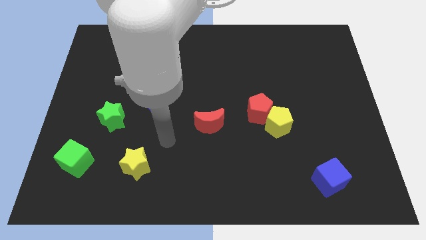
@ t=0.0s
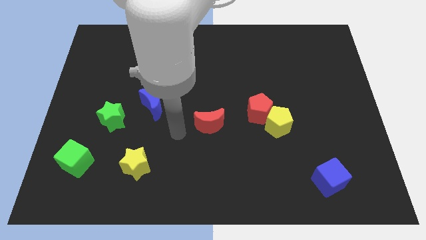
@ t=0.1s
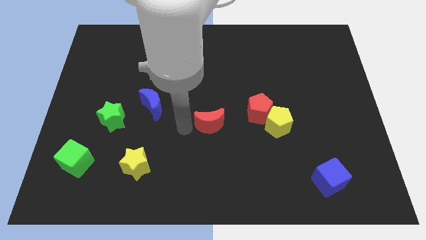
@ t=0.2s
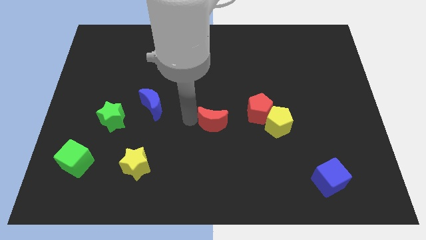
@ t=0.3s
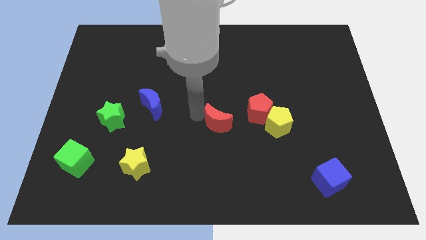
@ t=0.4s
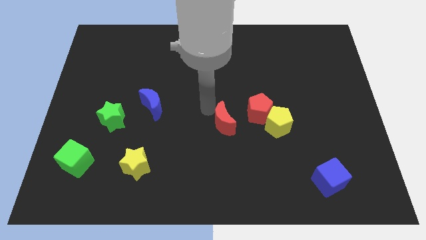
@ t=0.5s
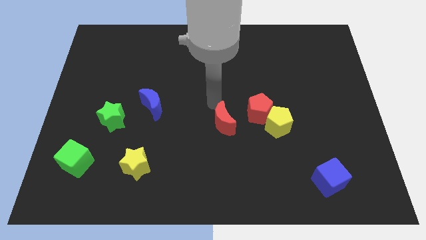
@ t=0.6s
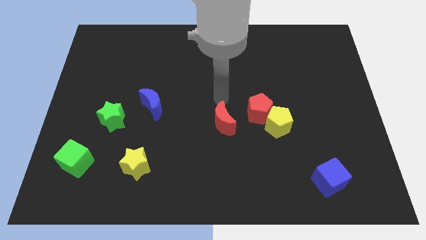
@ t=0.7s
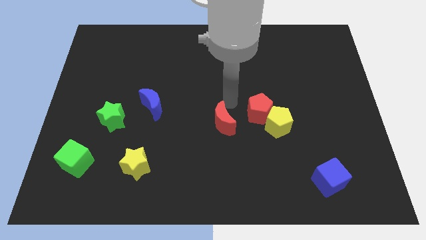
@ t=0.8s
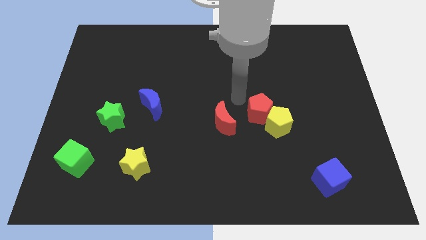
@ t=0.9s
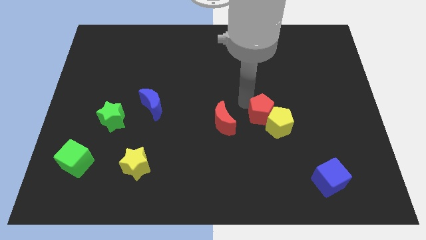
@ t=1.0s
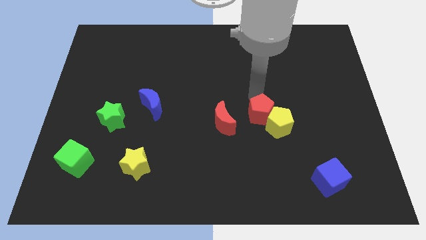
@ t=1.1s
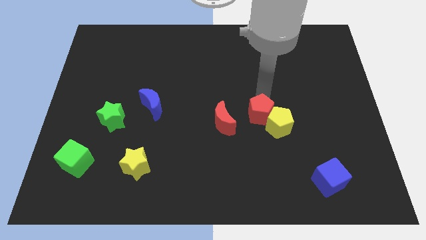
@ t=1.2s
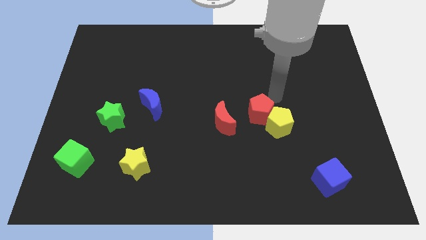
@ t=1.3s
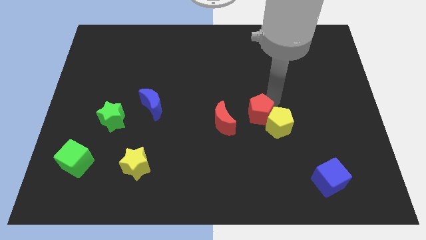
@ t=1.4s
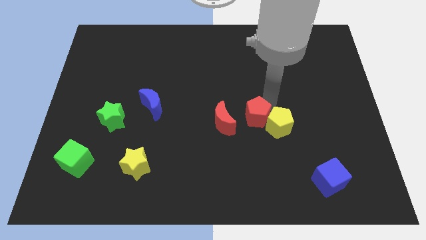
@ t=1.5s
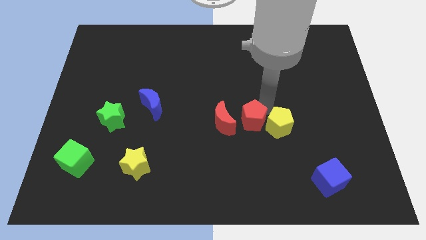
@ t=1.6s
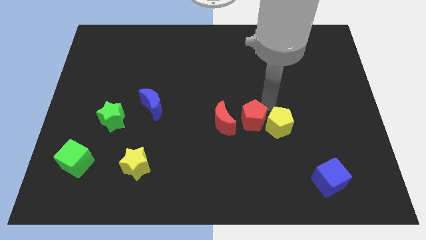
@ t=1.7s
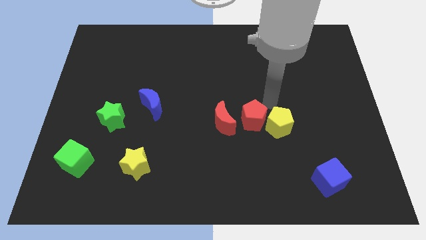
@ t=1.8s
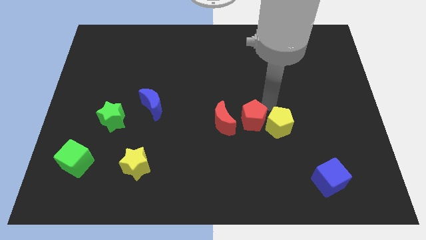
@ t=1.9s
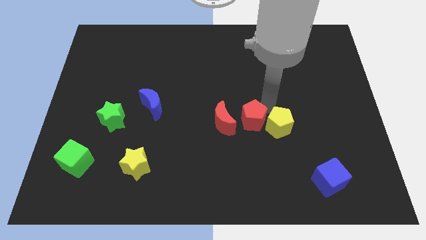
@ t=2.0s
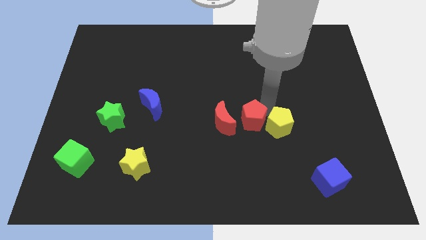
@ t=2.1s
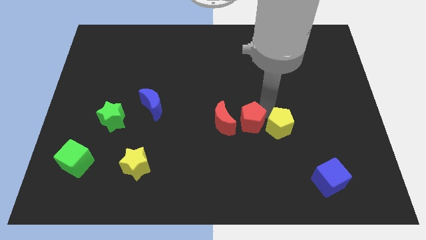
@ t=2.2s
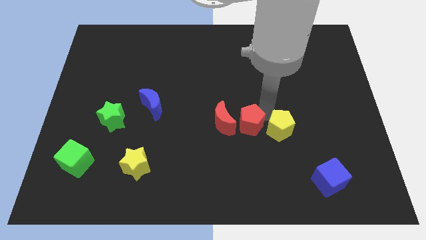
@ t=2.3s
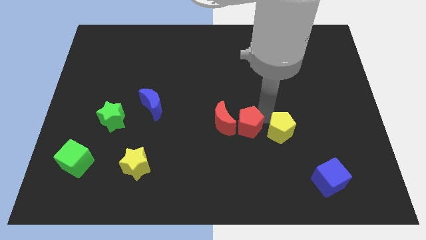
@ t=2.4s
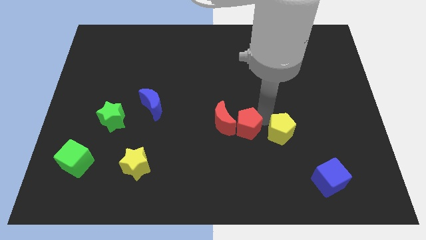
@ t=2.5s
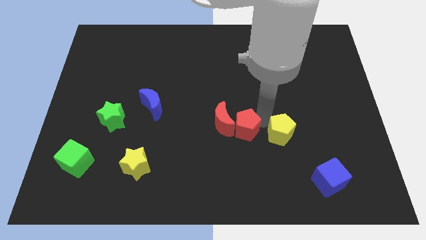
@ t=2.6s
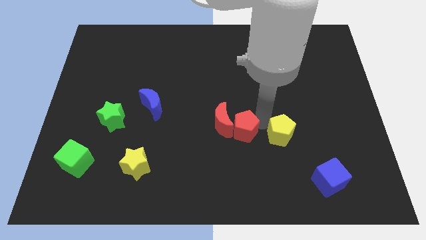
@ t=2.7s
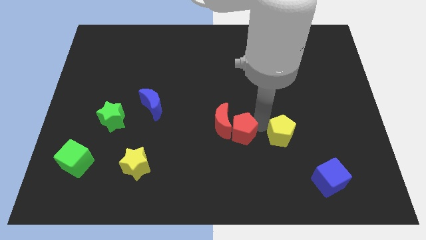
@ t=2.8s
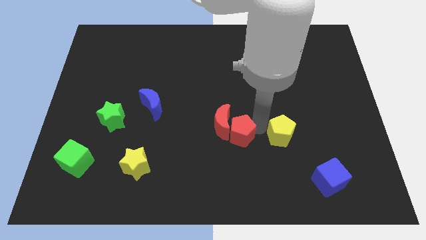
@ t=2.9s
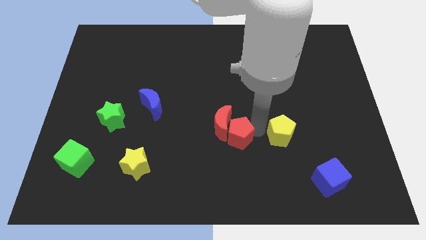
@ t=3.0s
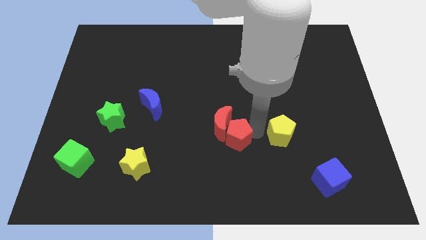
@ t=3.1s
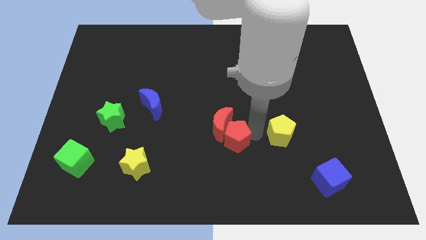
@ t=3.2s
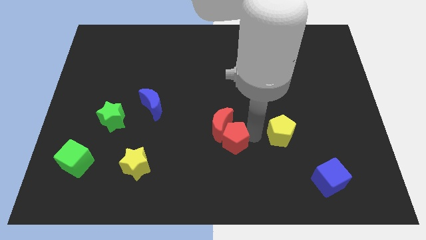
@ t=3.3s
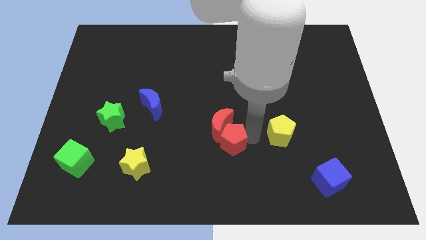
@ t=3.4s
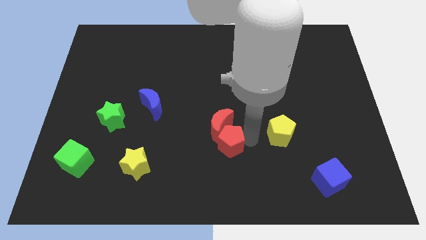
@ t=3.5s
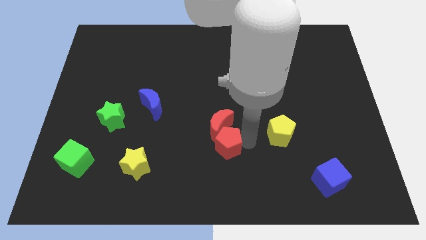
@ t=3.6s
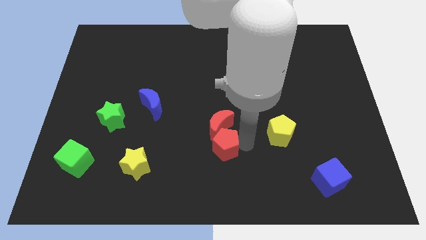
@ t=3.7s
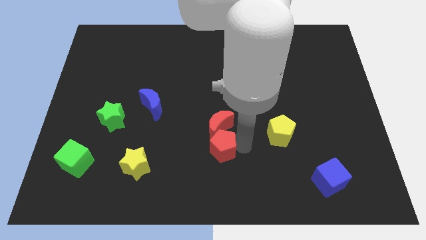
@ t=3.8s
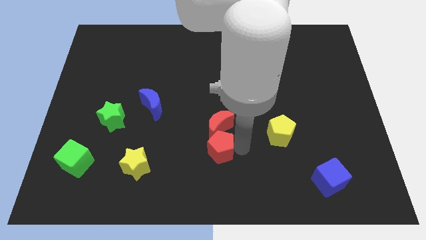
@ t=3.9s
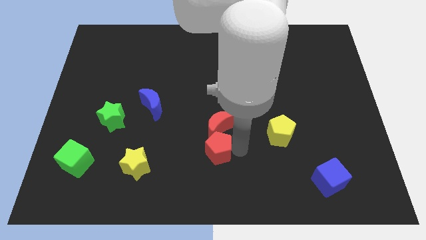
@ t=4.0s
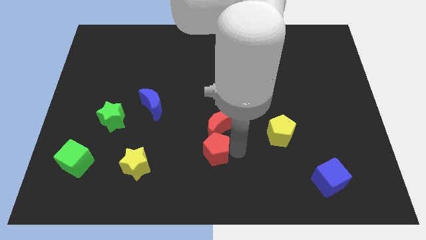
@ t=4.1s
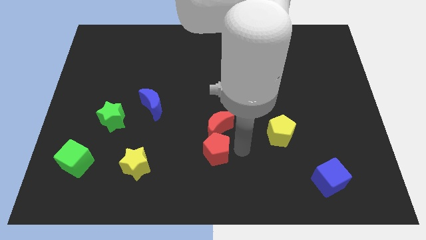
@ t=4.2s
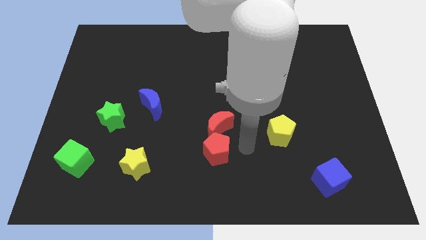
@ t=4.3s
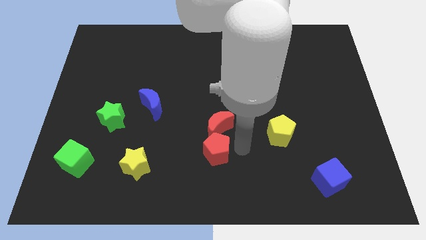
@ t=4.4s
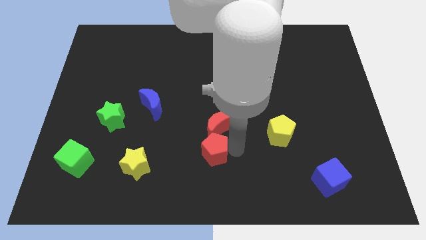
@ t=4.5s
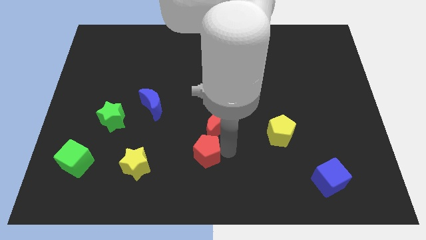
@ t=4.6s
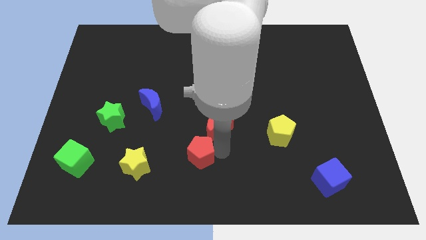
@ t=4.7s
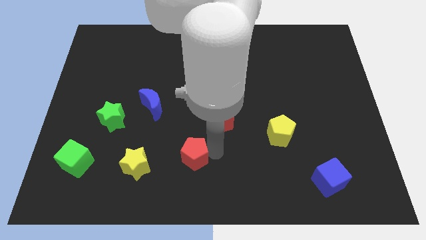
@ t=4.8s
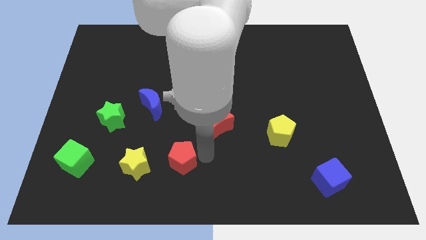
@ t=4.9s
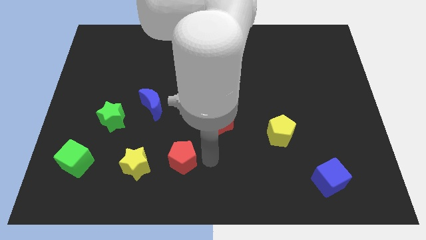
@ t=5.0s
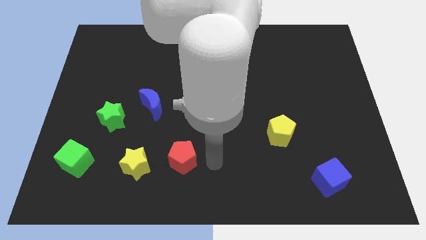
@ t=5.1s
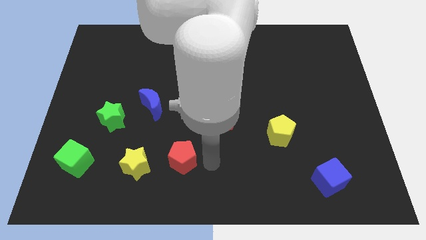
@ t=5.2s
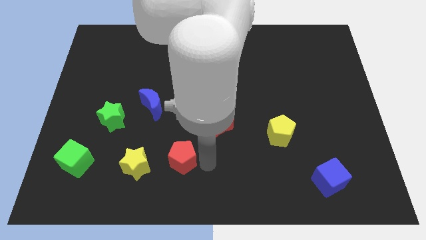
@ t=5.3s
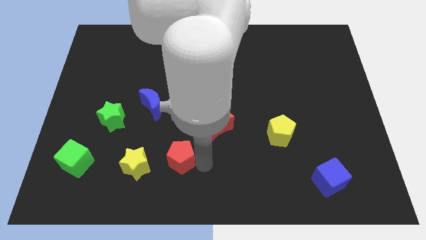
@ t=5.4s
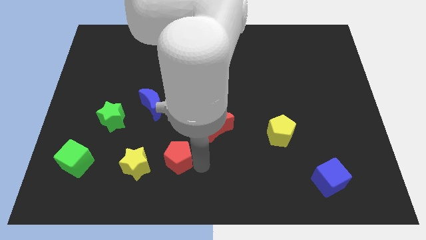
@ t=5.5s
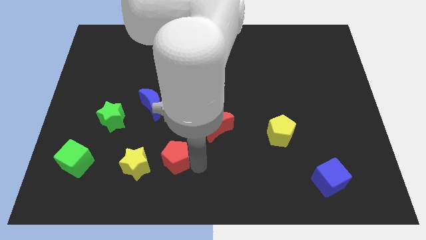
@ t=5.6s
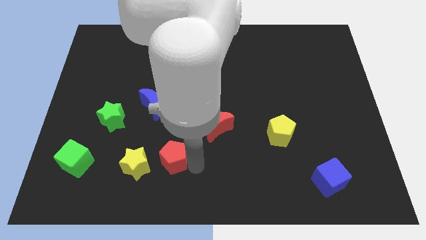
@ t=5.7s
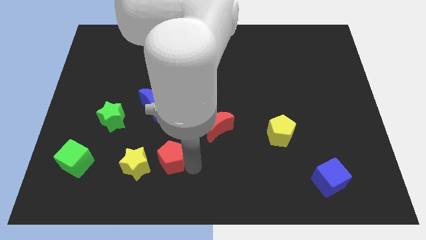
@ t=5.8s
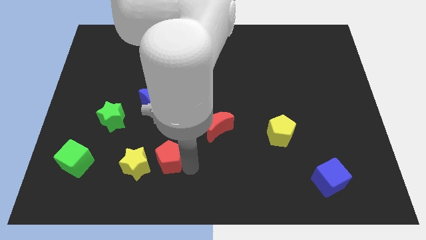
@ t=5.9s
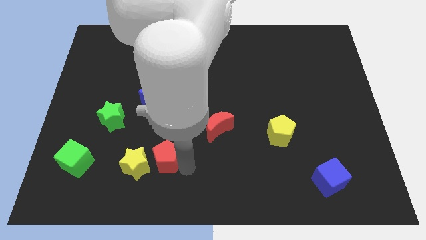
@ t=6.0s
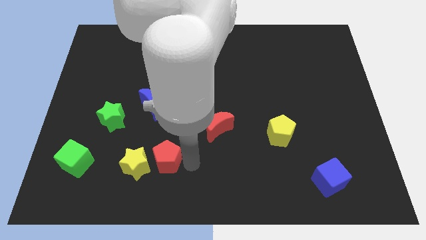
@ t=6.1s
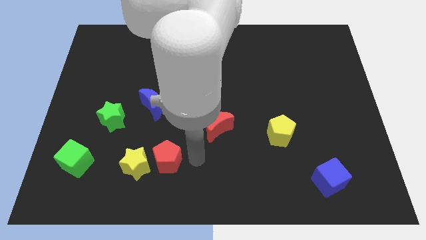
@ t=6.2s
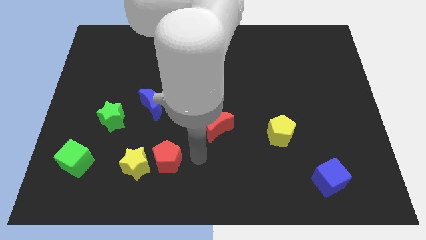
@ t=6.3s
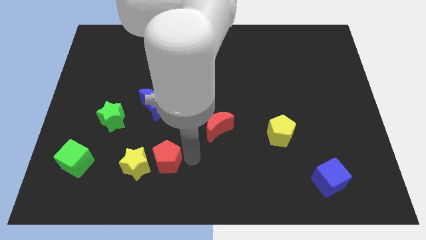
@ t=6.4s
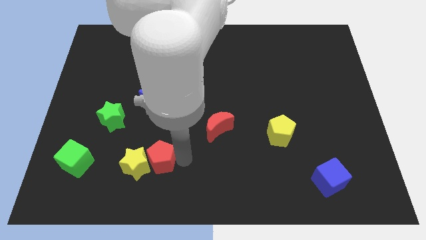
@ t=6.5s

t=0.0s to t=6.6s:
put the red pentagon close to the yellow star

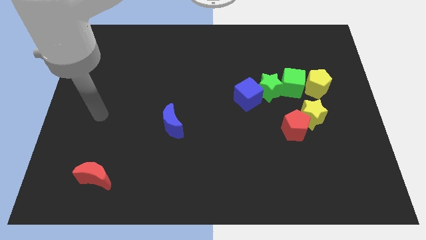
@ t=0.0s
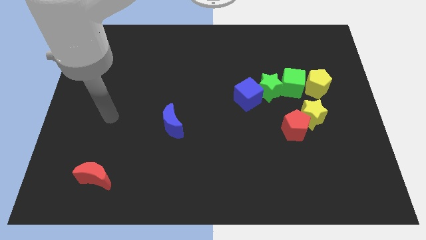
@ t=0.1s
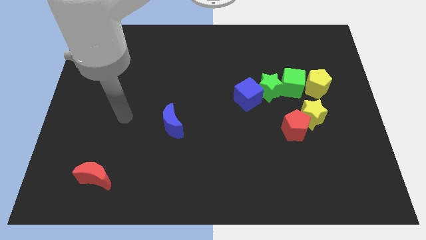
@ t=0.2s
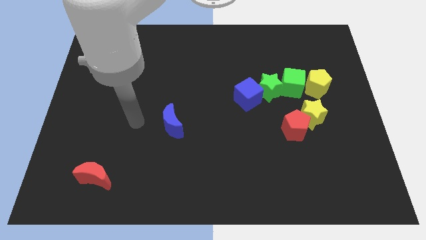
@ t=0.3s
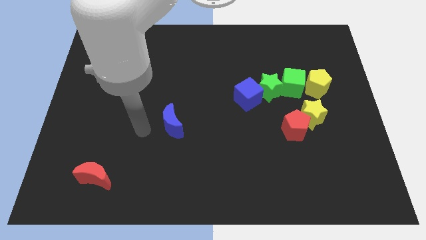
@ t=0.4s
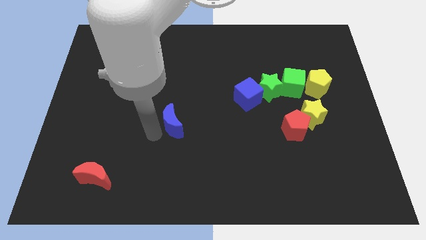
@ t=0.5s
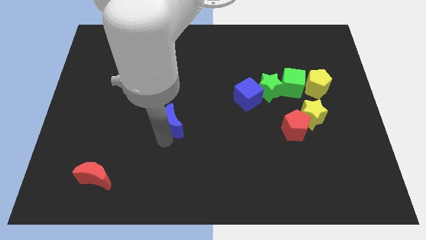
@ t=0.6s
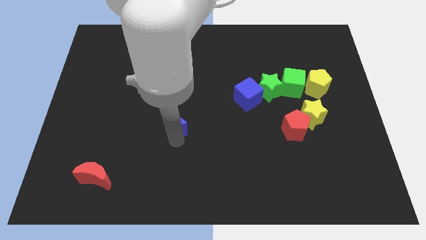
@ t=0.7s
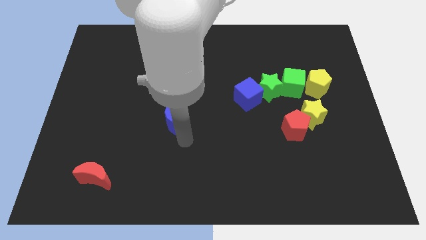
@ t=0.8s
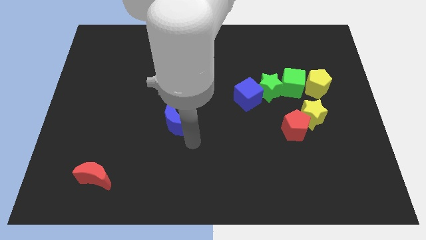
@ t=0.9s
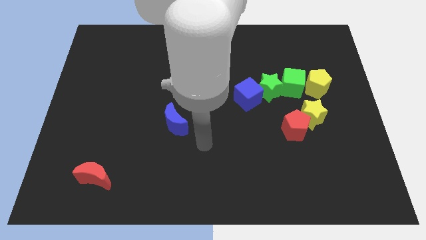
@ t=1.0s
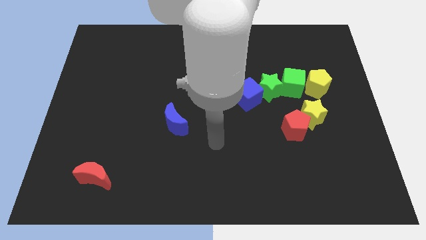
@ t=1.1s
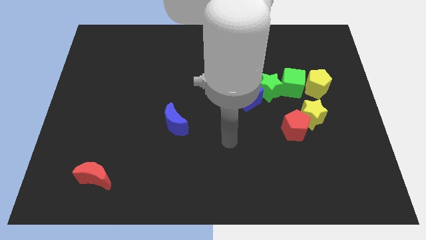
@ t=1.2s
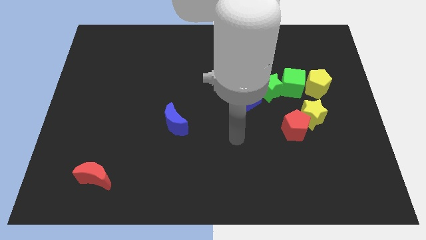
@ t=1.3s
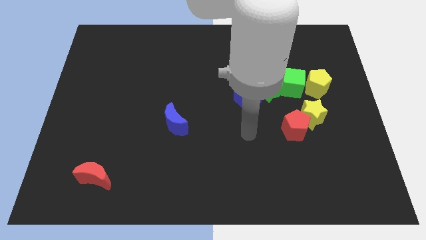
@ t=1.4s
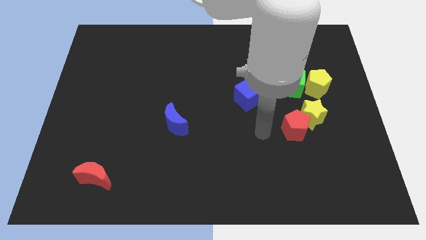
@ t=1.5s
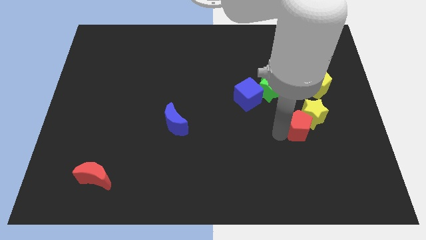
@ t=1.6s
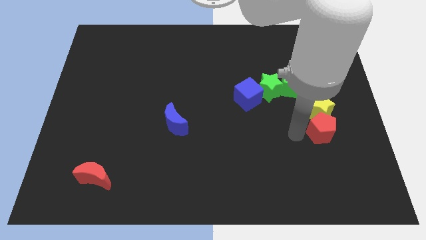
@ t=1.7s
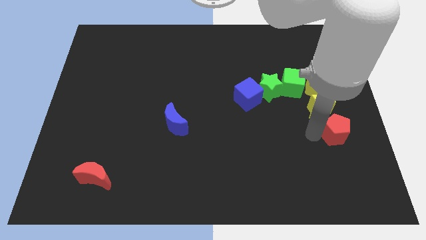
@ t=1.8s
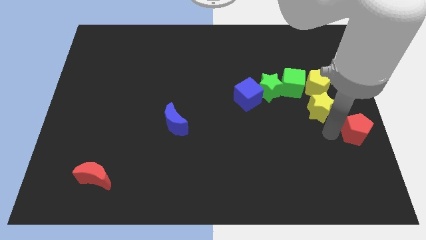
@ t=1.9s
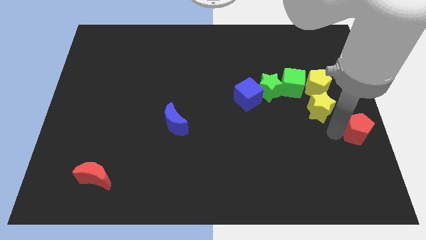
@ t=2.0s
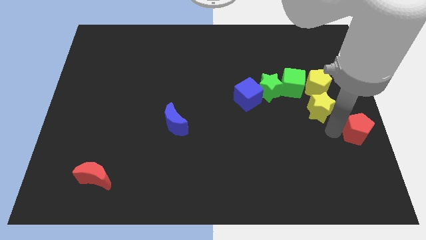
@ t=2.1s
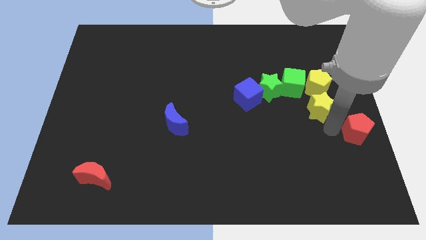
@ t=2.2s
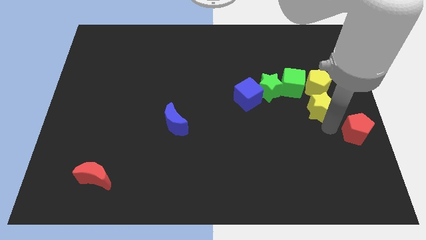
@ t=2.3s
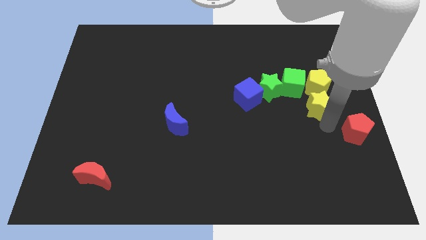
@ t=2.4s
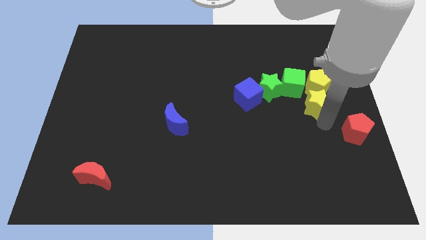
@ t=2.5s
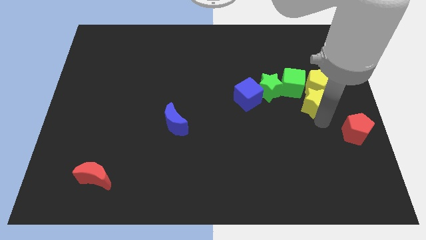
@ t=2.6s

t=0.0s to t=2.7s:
slide the yellow star towards the yellow pentagon
